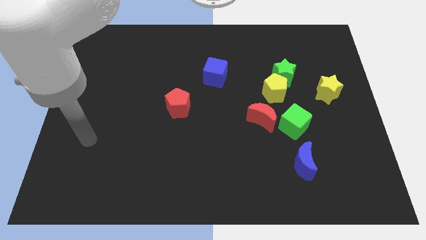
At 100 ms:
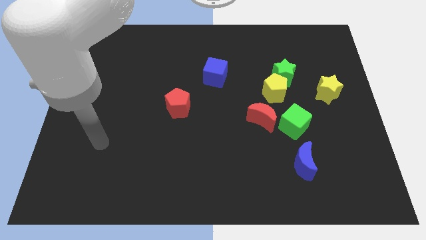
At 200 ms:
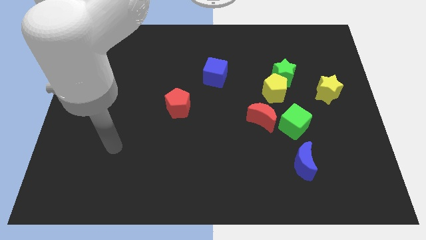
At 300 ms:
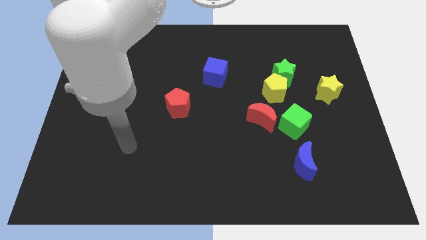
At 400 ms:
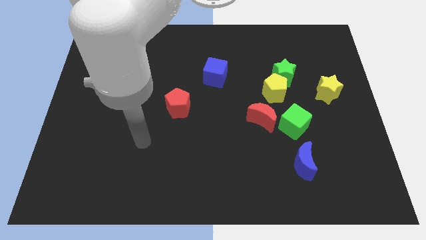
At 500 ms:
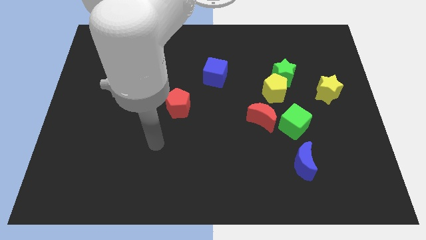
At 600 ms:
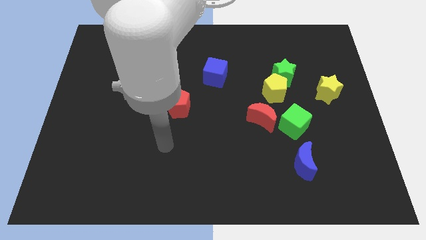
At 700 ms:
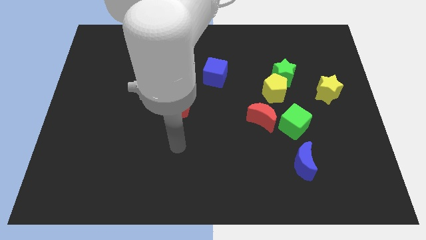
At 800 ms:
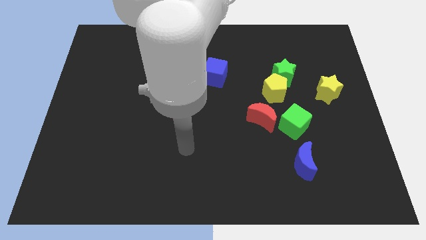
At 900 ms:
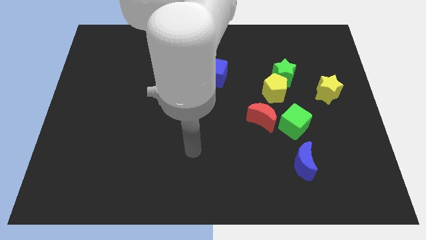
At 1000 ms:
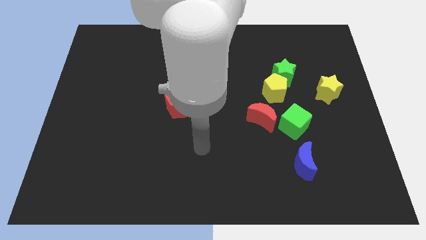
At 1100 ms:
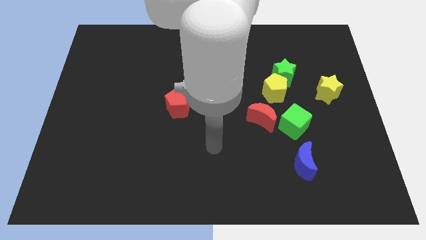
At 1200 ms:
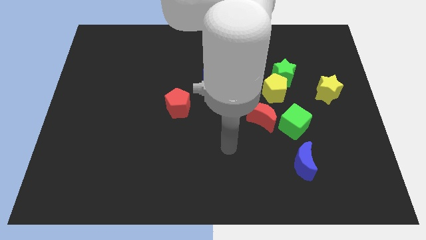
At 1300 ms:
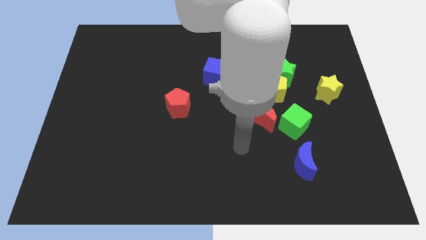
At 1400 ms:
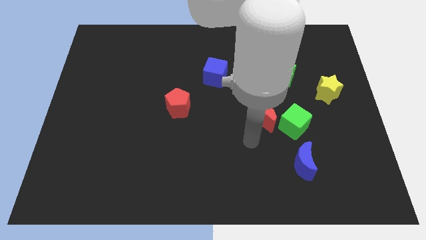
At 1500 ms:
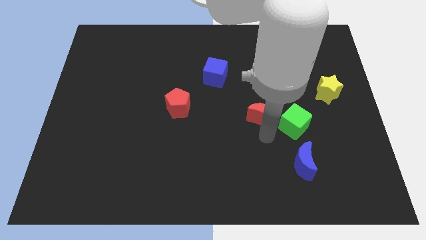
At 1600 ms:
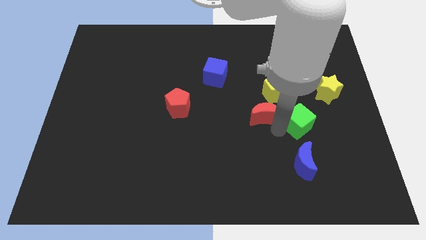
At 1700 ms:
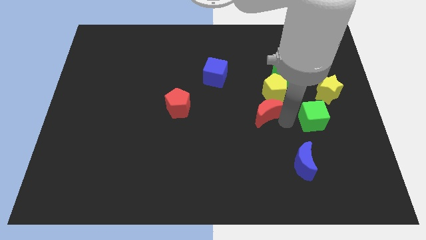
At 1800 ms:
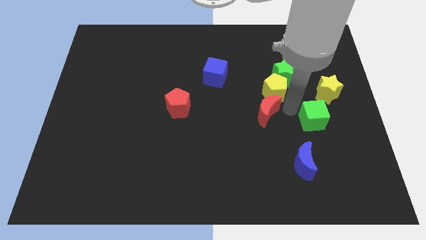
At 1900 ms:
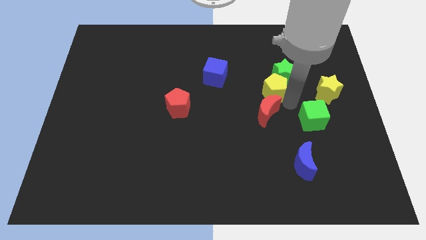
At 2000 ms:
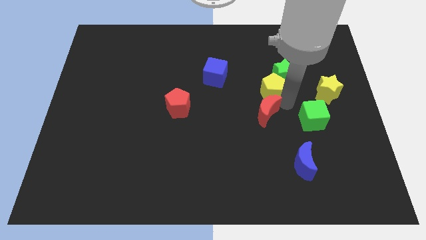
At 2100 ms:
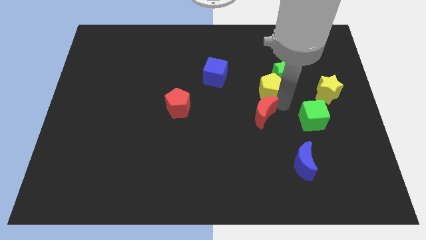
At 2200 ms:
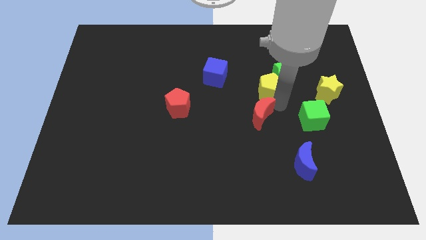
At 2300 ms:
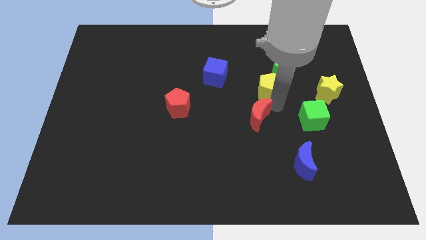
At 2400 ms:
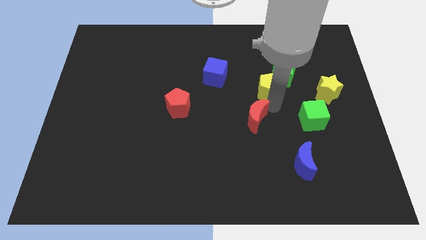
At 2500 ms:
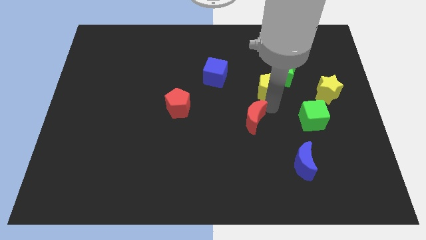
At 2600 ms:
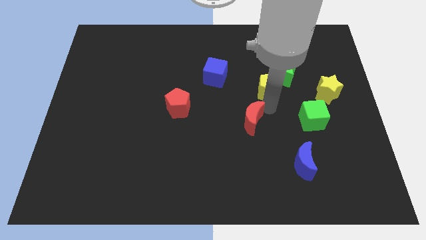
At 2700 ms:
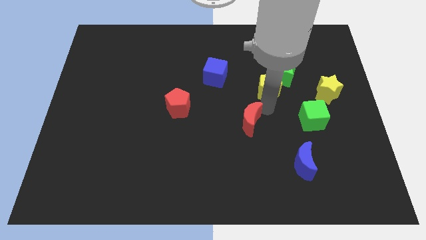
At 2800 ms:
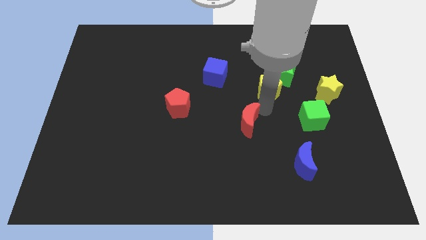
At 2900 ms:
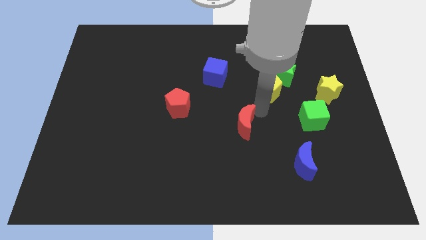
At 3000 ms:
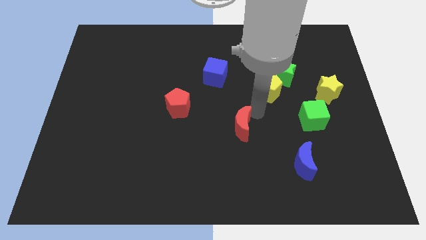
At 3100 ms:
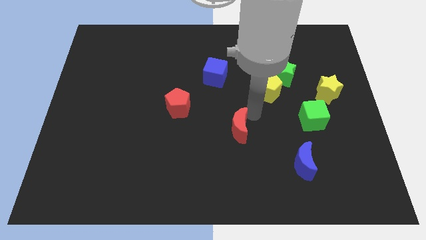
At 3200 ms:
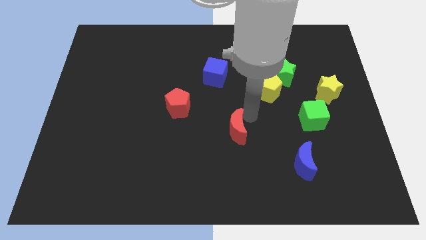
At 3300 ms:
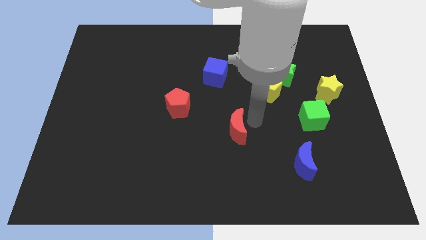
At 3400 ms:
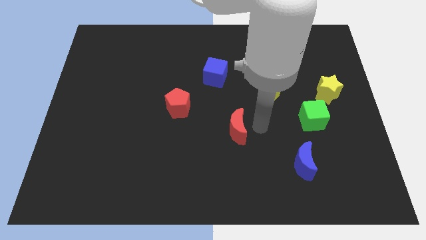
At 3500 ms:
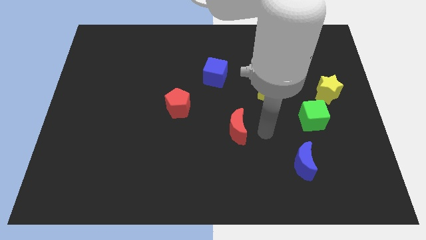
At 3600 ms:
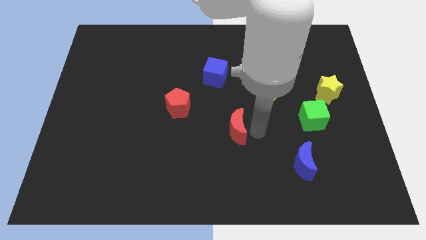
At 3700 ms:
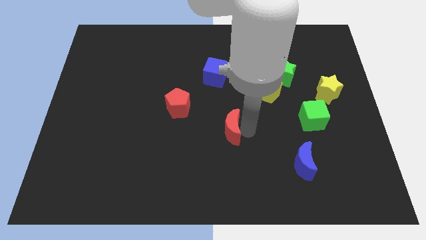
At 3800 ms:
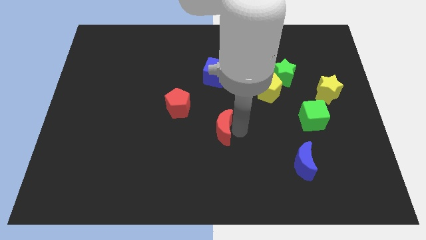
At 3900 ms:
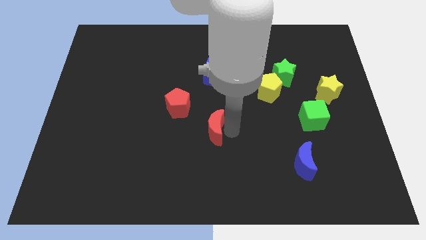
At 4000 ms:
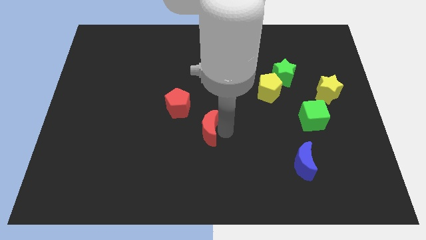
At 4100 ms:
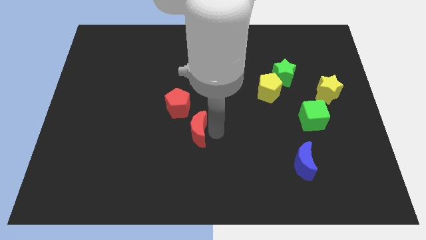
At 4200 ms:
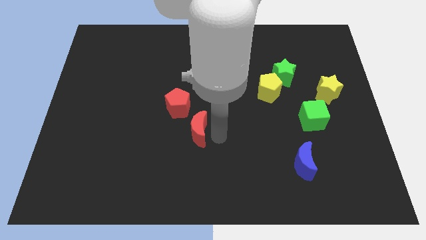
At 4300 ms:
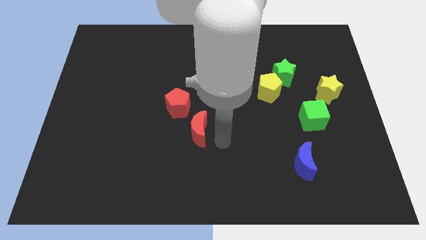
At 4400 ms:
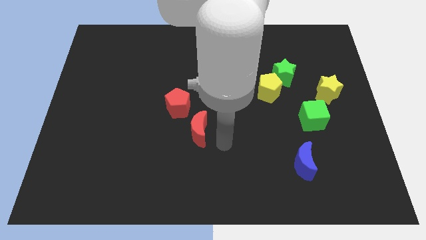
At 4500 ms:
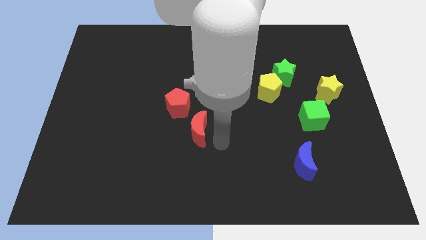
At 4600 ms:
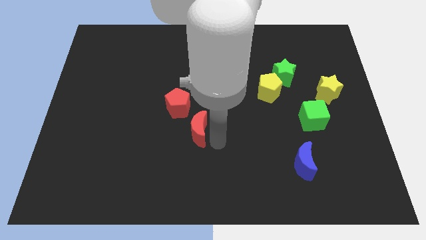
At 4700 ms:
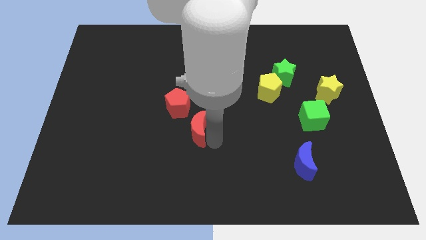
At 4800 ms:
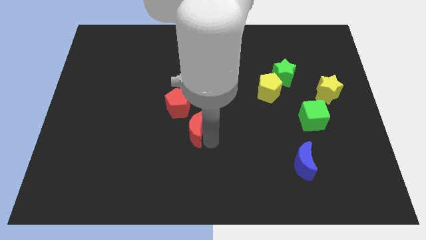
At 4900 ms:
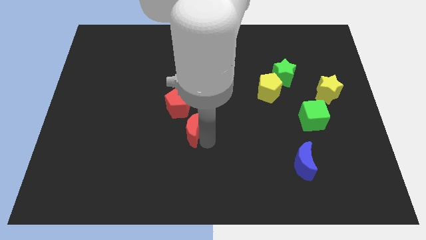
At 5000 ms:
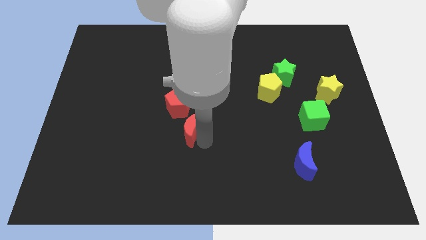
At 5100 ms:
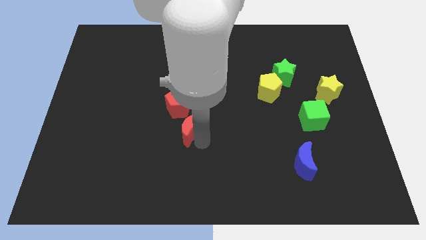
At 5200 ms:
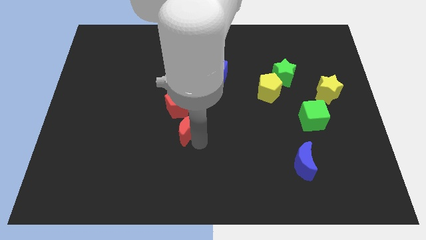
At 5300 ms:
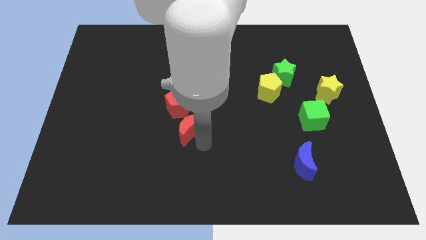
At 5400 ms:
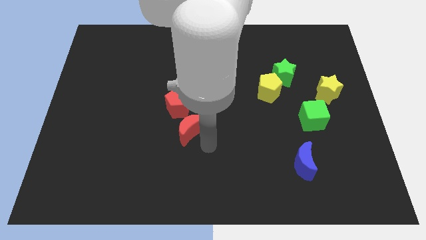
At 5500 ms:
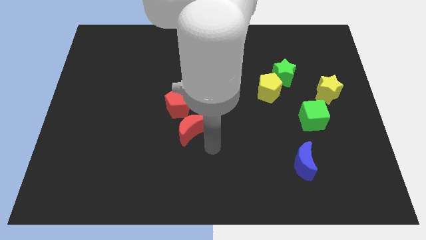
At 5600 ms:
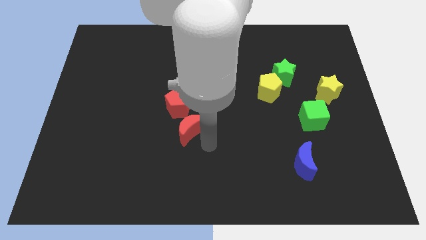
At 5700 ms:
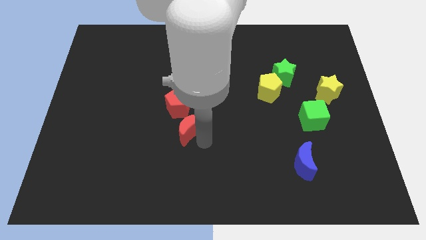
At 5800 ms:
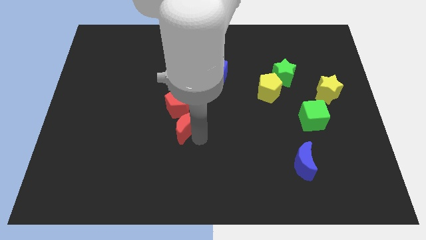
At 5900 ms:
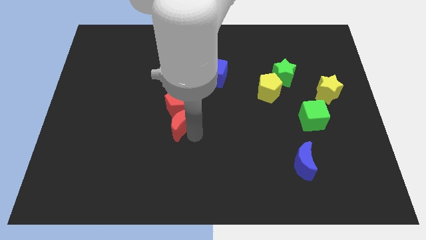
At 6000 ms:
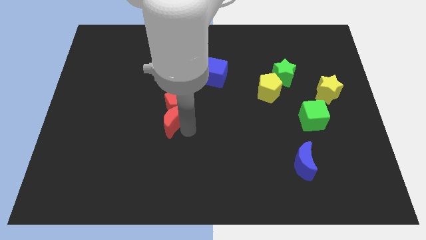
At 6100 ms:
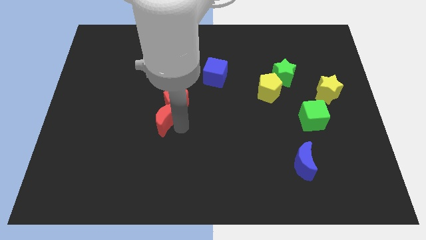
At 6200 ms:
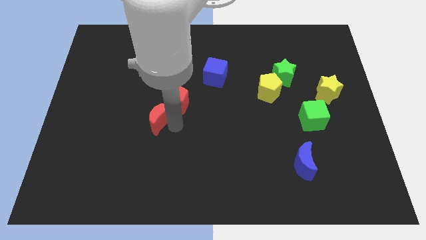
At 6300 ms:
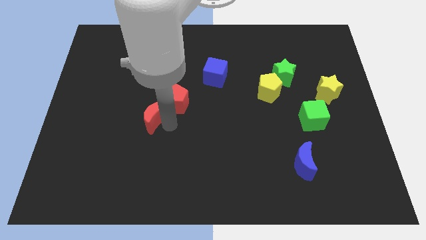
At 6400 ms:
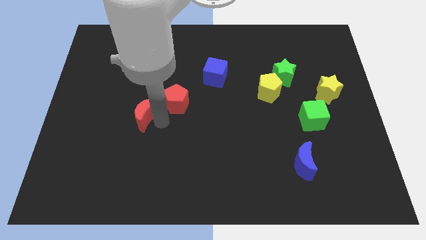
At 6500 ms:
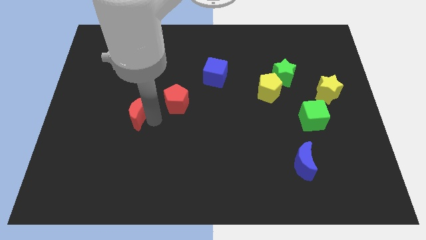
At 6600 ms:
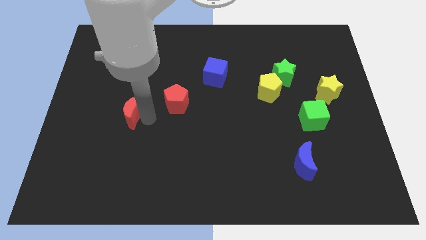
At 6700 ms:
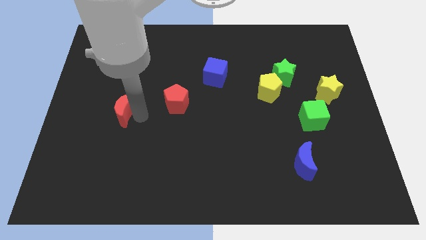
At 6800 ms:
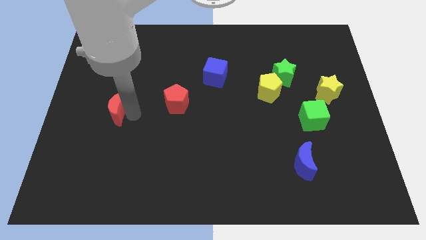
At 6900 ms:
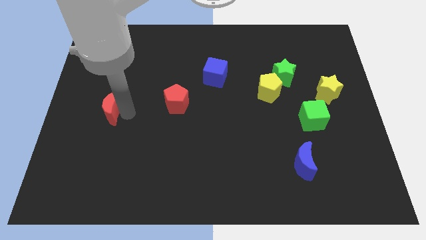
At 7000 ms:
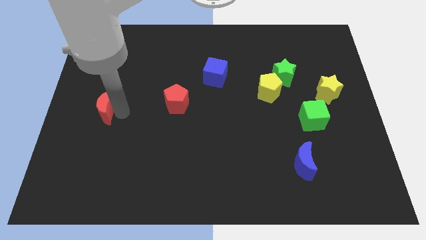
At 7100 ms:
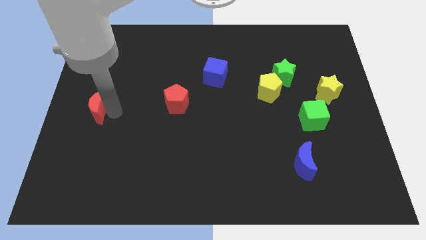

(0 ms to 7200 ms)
put the red moon to the left side of the board
